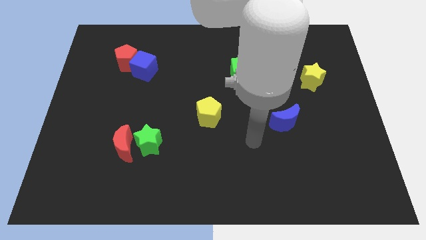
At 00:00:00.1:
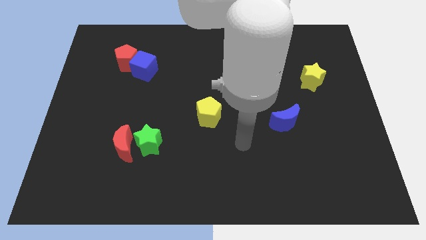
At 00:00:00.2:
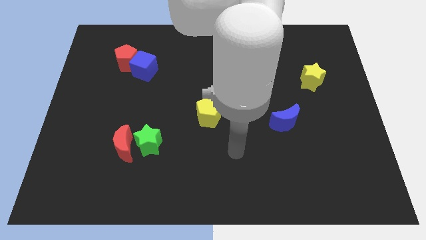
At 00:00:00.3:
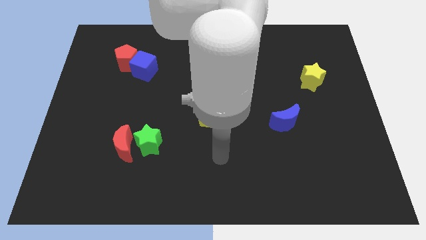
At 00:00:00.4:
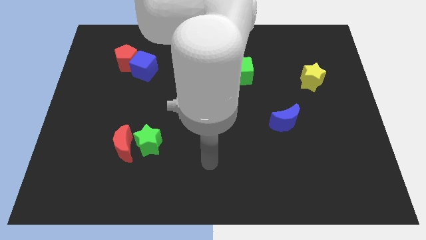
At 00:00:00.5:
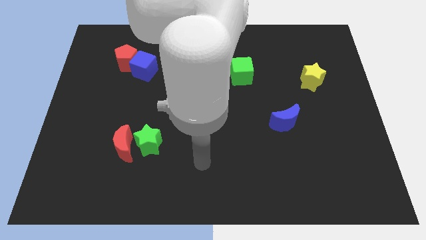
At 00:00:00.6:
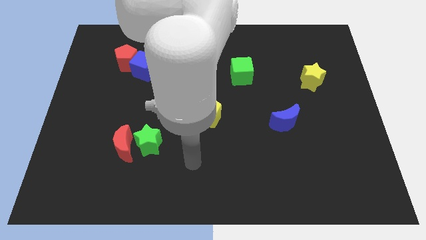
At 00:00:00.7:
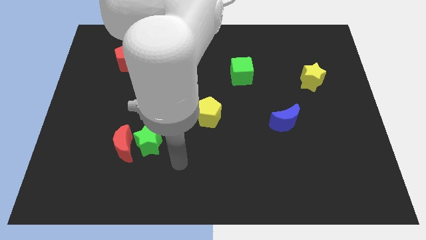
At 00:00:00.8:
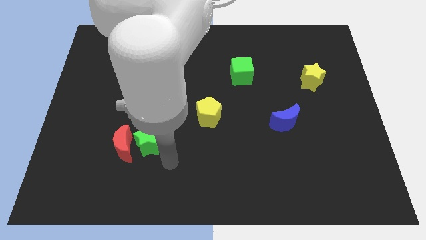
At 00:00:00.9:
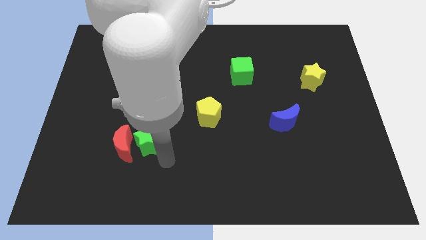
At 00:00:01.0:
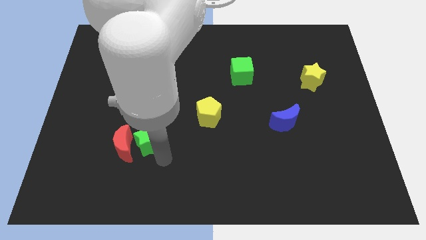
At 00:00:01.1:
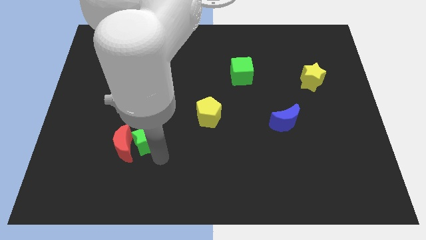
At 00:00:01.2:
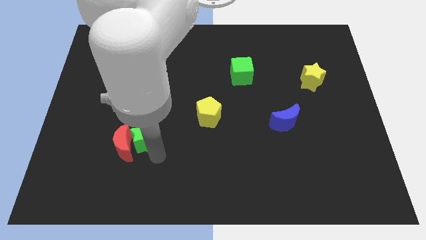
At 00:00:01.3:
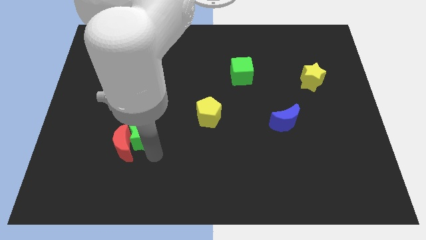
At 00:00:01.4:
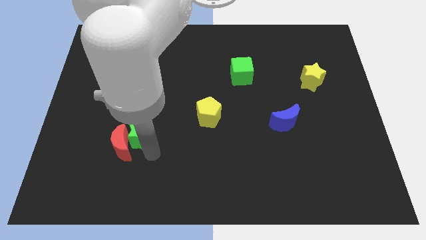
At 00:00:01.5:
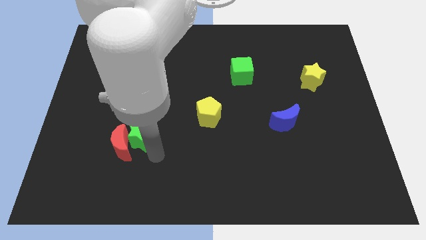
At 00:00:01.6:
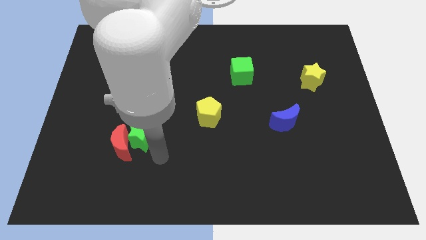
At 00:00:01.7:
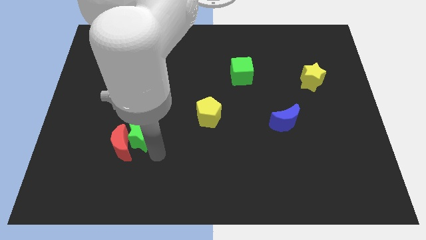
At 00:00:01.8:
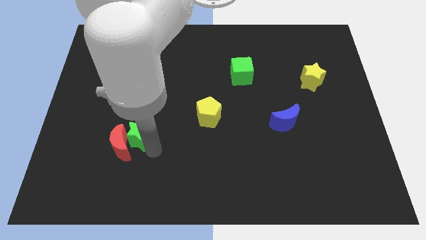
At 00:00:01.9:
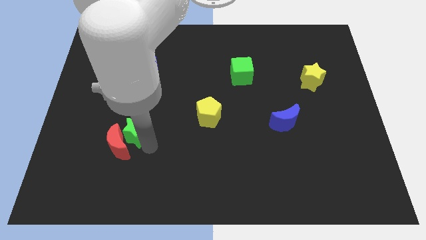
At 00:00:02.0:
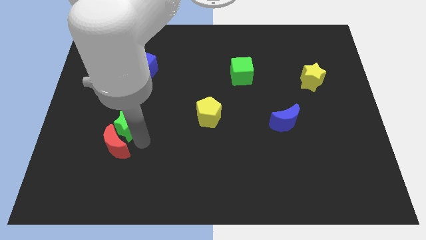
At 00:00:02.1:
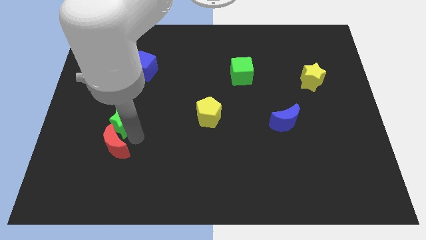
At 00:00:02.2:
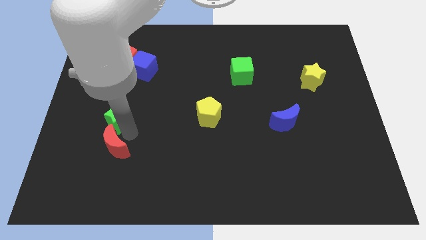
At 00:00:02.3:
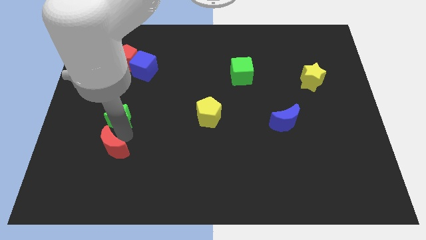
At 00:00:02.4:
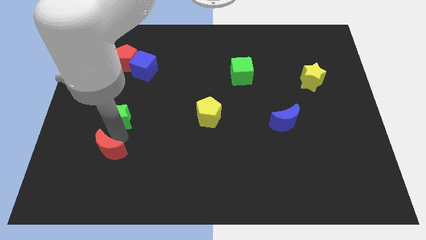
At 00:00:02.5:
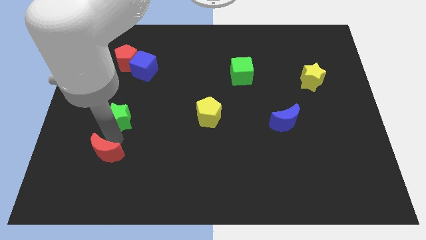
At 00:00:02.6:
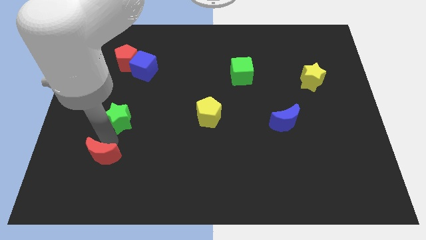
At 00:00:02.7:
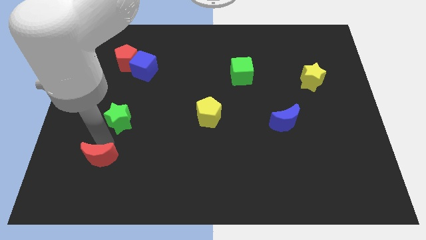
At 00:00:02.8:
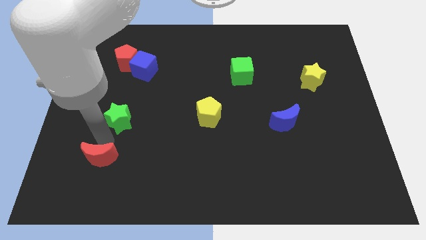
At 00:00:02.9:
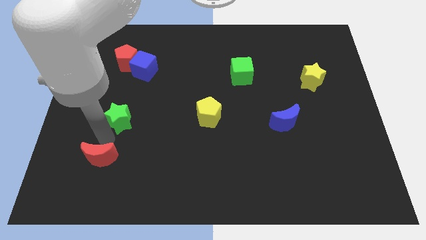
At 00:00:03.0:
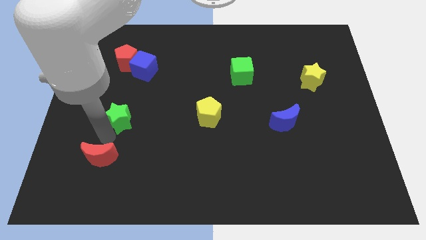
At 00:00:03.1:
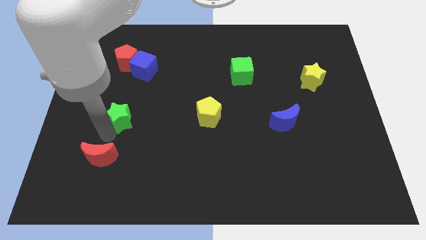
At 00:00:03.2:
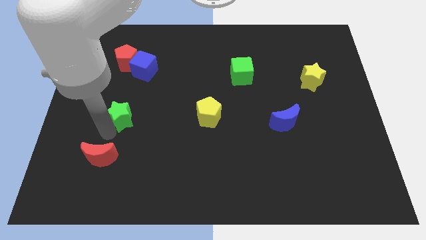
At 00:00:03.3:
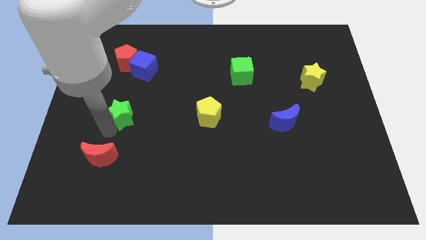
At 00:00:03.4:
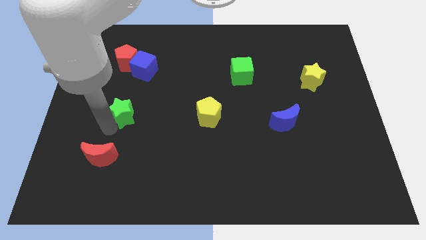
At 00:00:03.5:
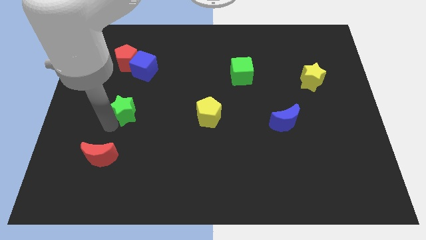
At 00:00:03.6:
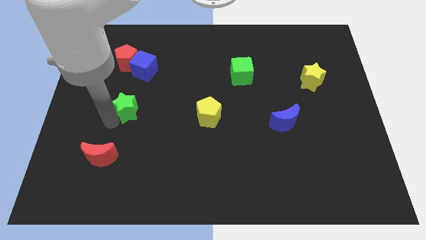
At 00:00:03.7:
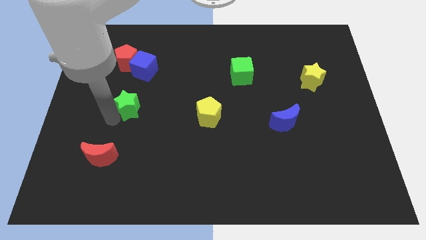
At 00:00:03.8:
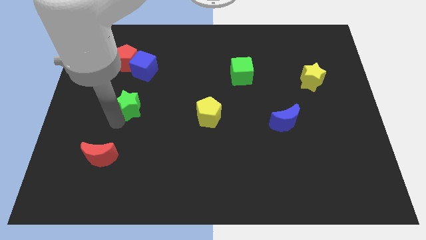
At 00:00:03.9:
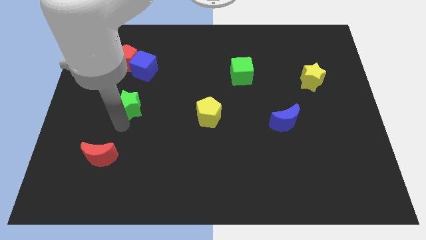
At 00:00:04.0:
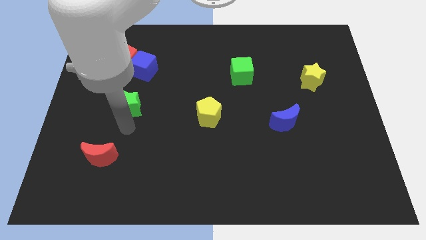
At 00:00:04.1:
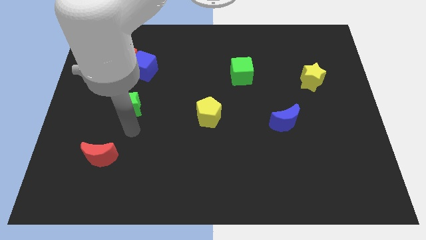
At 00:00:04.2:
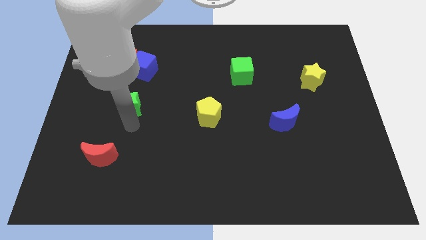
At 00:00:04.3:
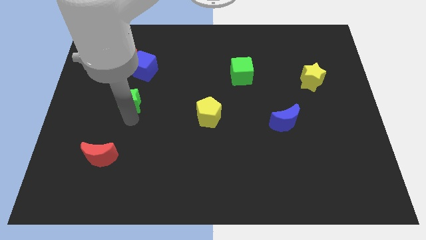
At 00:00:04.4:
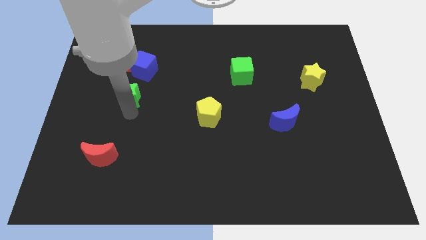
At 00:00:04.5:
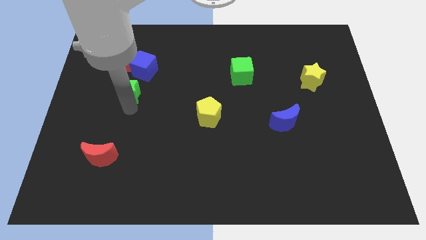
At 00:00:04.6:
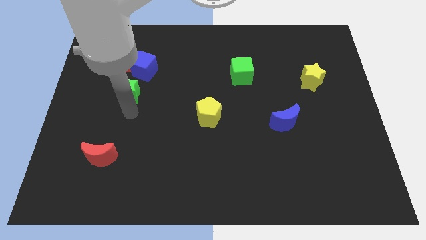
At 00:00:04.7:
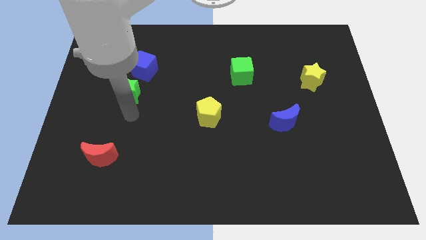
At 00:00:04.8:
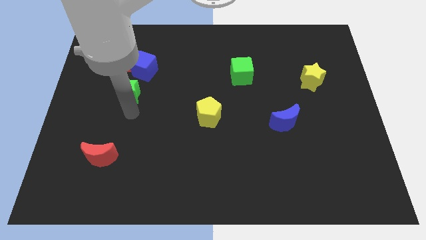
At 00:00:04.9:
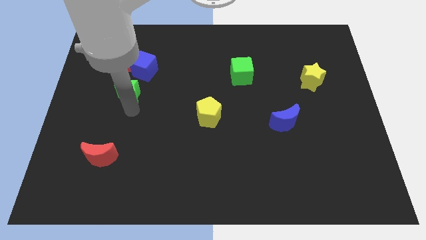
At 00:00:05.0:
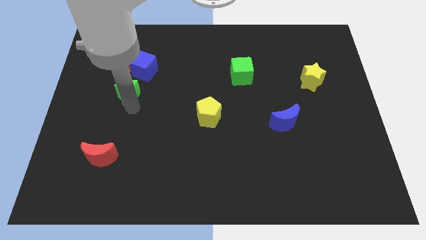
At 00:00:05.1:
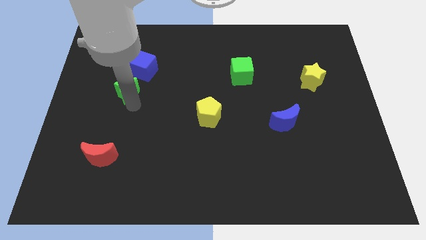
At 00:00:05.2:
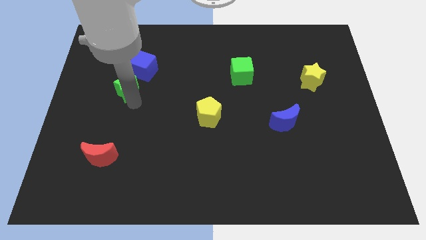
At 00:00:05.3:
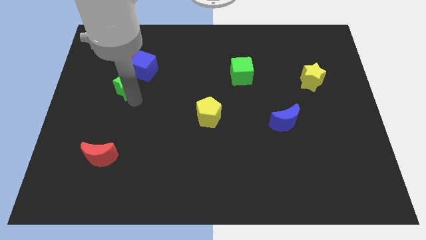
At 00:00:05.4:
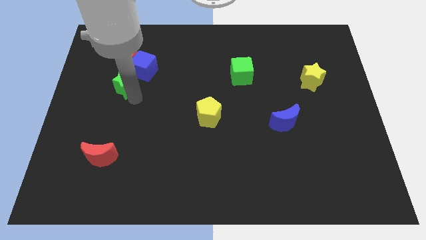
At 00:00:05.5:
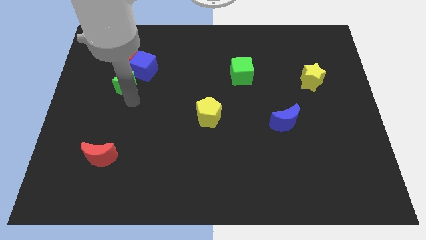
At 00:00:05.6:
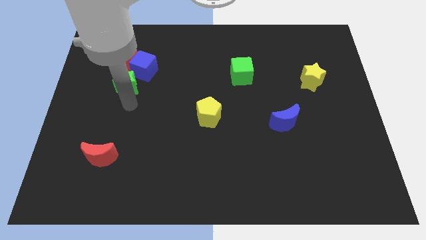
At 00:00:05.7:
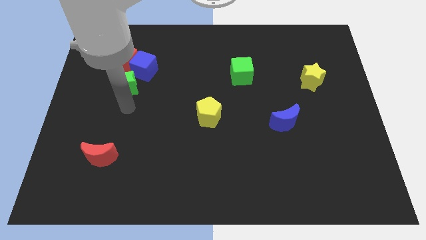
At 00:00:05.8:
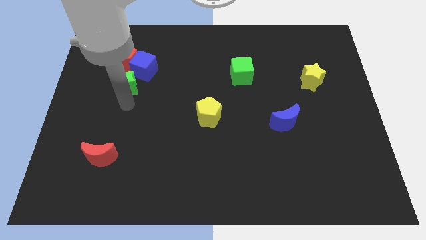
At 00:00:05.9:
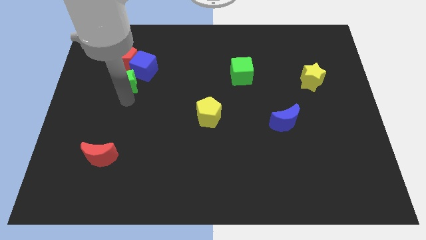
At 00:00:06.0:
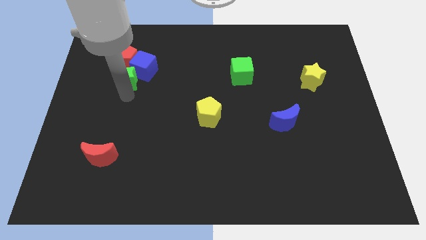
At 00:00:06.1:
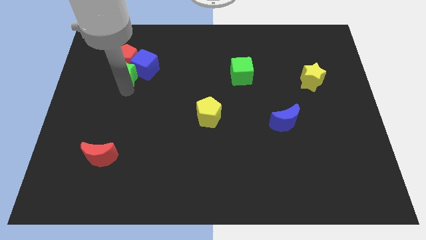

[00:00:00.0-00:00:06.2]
put the green star close to the red pentagon
